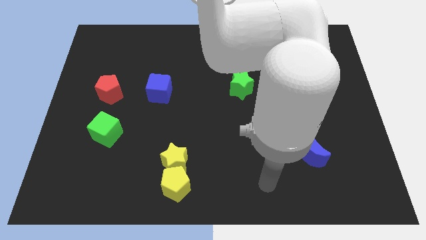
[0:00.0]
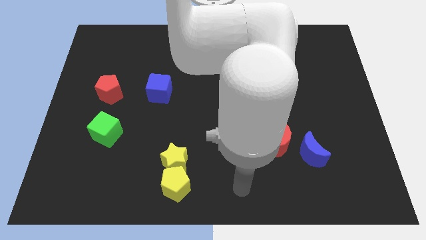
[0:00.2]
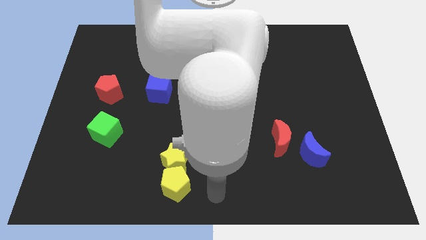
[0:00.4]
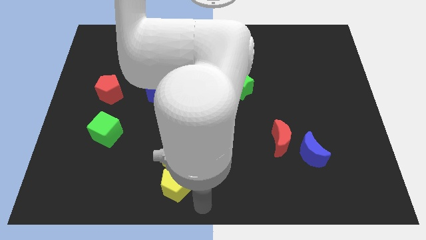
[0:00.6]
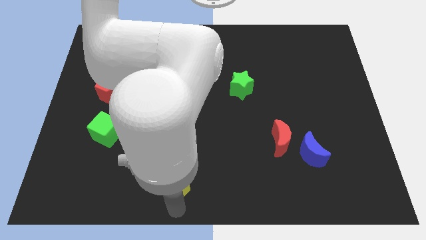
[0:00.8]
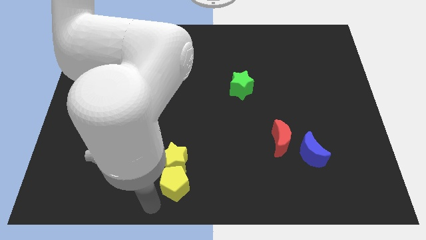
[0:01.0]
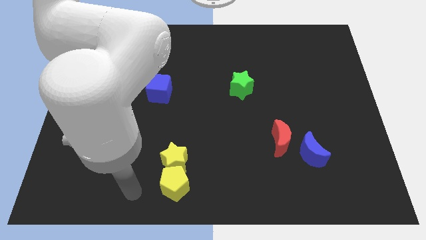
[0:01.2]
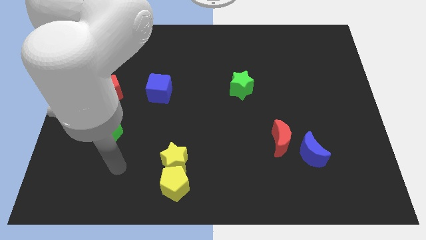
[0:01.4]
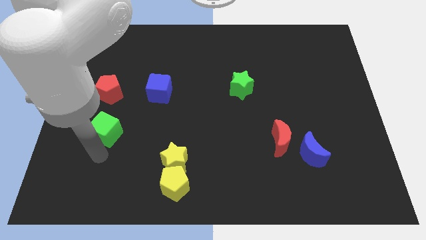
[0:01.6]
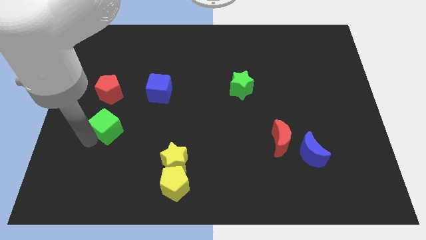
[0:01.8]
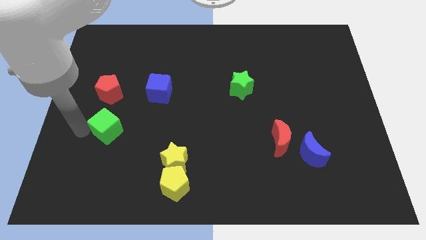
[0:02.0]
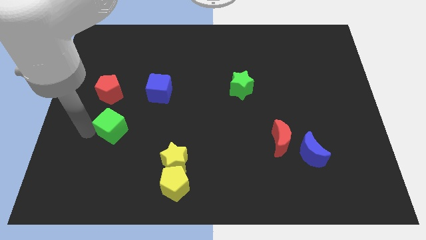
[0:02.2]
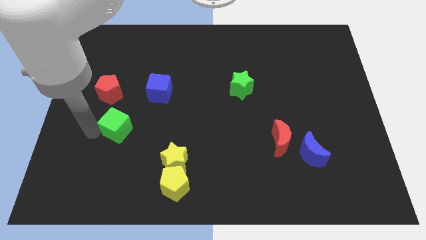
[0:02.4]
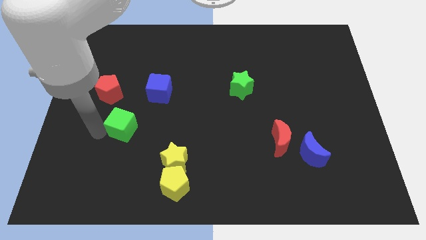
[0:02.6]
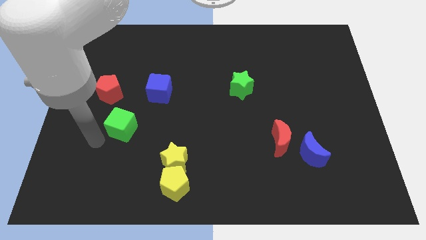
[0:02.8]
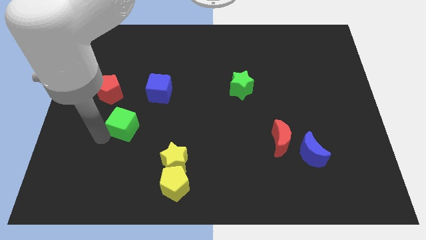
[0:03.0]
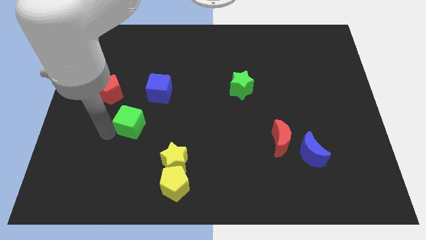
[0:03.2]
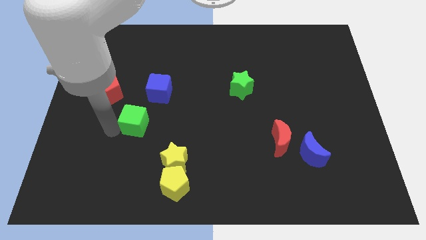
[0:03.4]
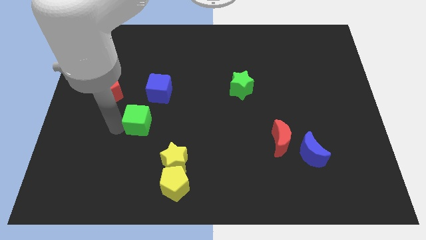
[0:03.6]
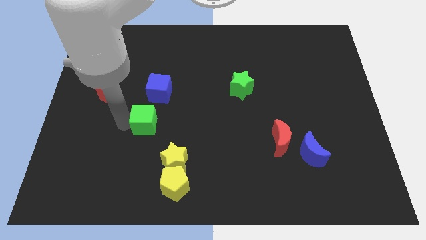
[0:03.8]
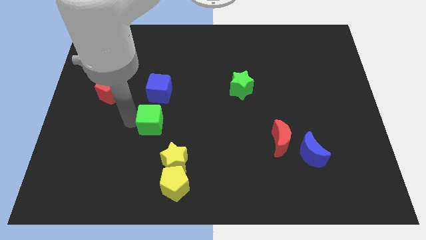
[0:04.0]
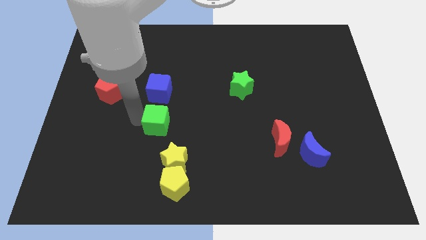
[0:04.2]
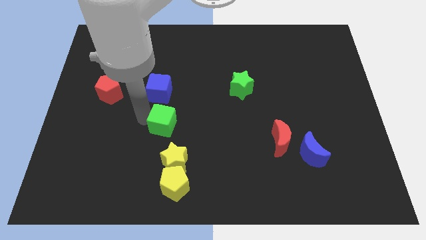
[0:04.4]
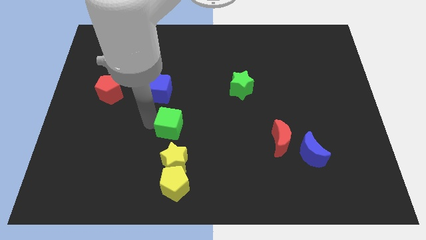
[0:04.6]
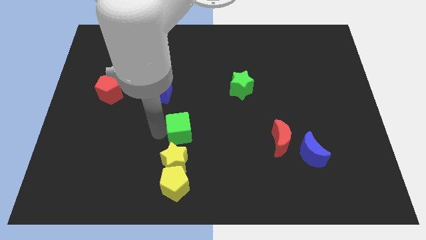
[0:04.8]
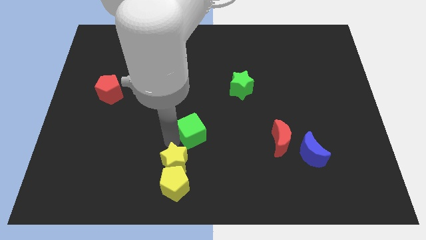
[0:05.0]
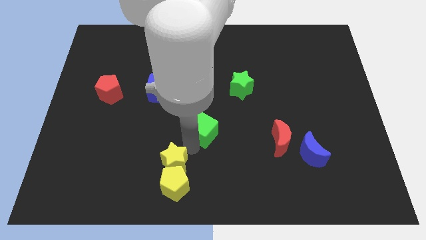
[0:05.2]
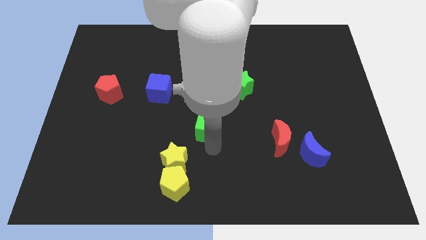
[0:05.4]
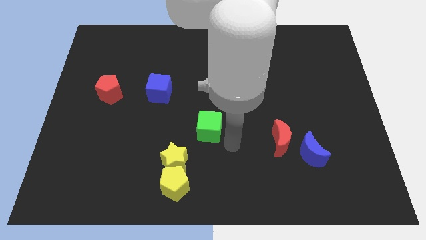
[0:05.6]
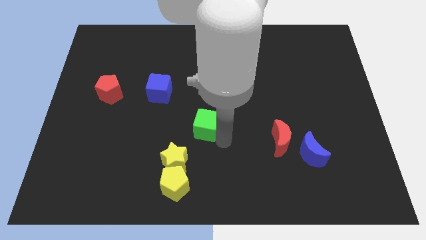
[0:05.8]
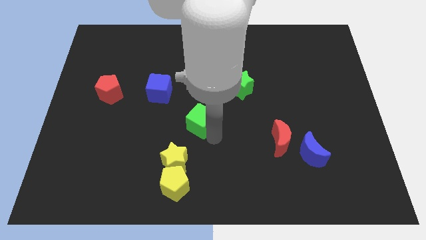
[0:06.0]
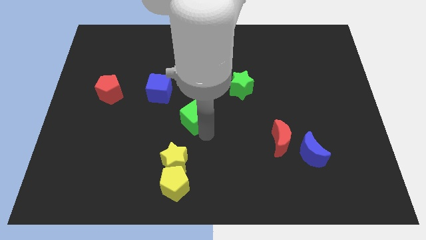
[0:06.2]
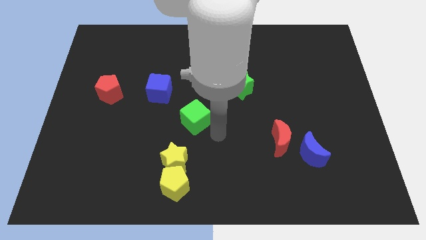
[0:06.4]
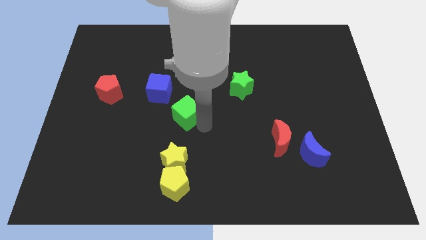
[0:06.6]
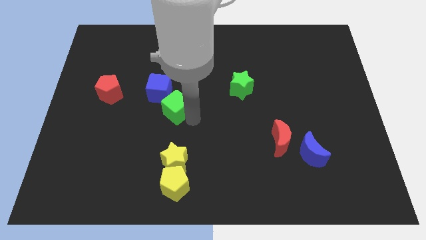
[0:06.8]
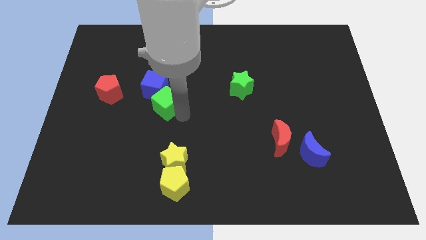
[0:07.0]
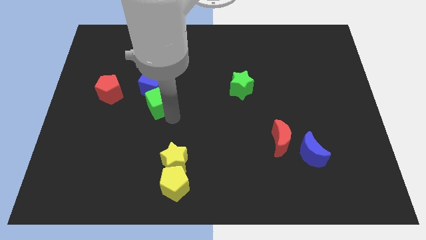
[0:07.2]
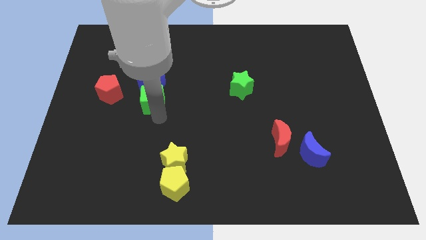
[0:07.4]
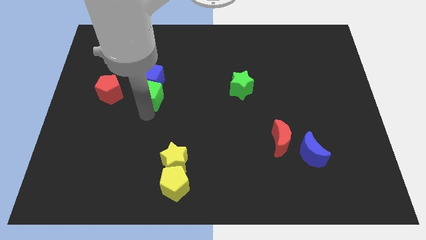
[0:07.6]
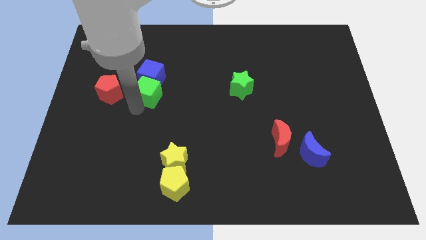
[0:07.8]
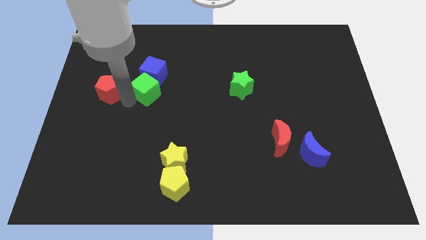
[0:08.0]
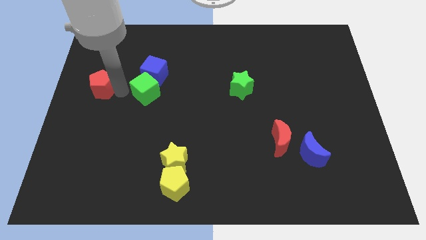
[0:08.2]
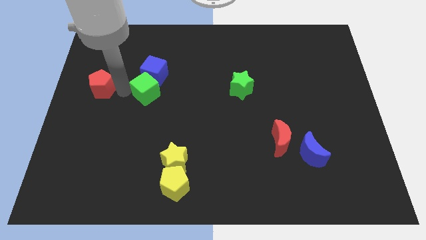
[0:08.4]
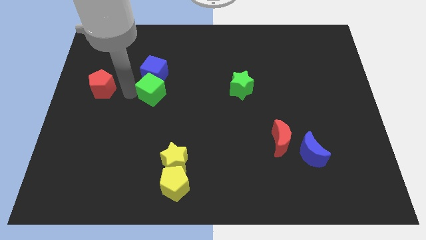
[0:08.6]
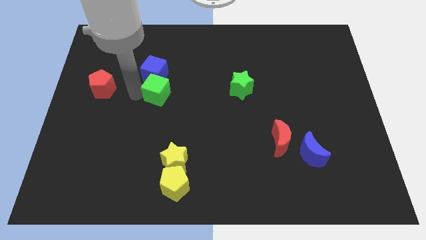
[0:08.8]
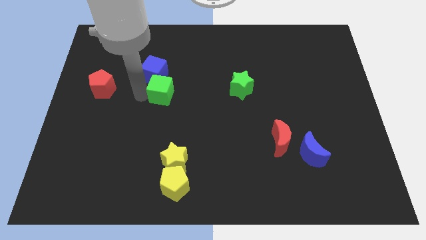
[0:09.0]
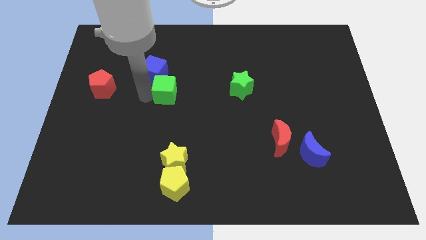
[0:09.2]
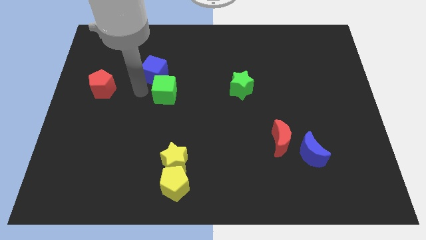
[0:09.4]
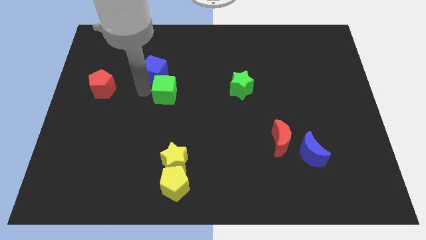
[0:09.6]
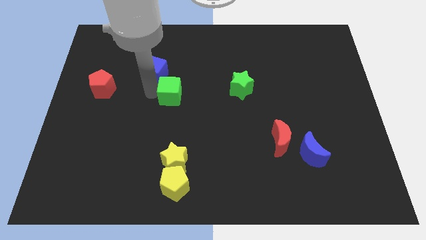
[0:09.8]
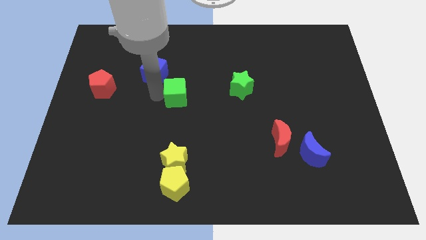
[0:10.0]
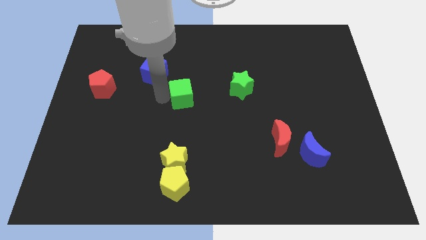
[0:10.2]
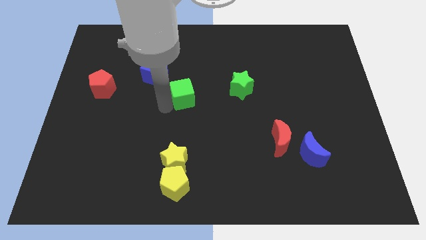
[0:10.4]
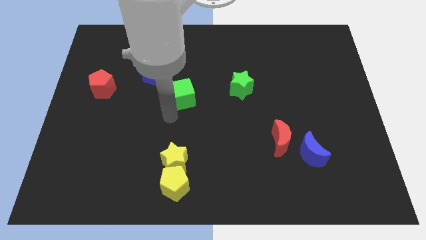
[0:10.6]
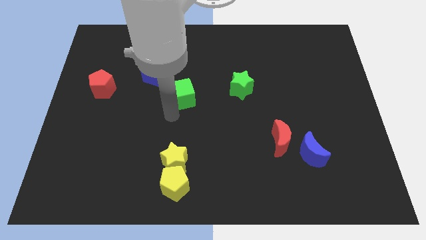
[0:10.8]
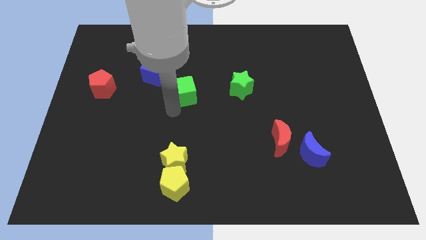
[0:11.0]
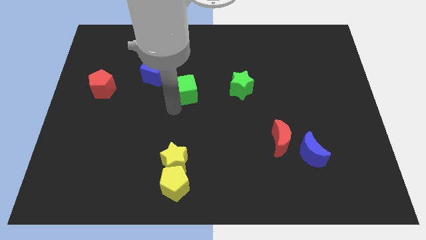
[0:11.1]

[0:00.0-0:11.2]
push the green cube diagonally up and right

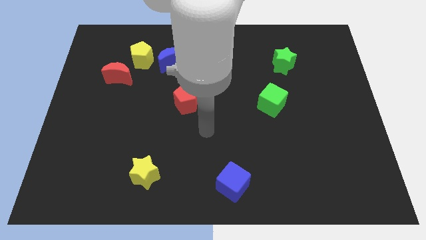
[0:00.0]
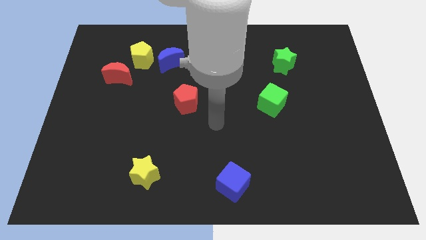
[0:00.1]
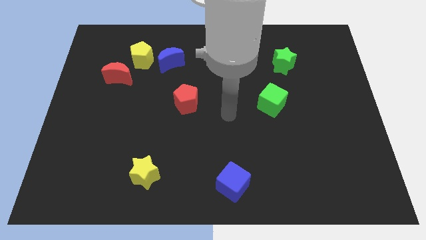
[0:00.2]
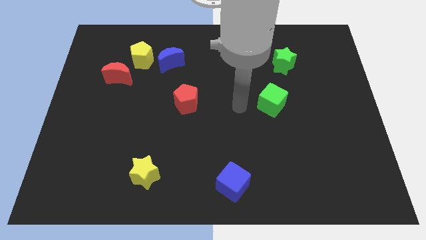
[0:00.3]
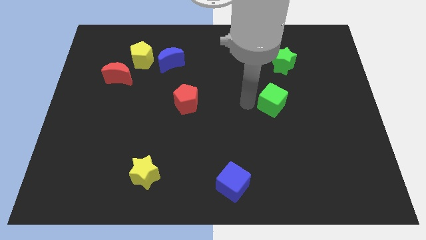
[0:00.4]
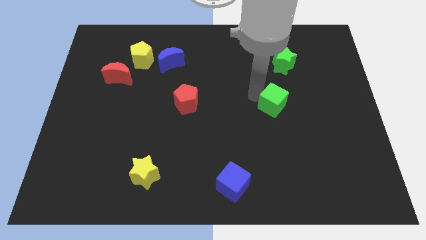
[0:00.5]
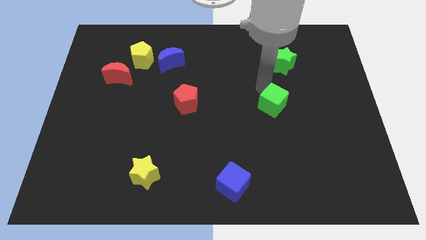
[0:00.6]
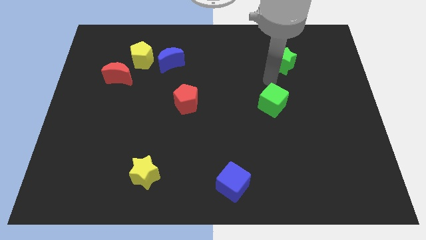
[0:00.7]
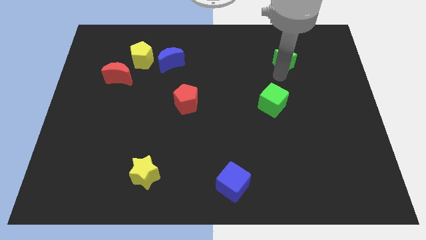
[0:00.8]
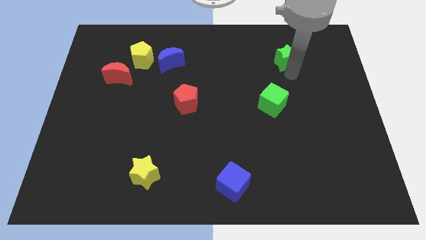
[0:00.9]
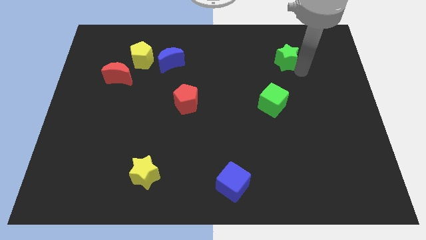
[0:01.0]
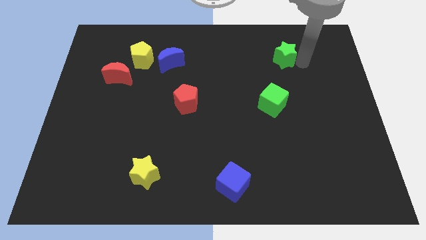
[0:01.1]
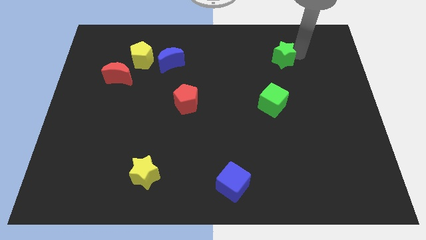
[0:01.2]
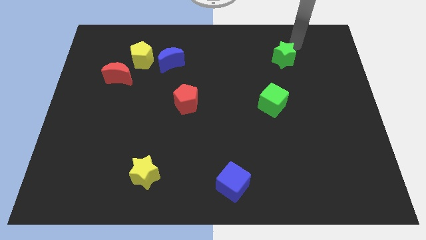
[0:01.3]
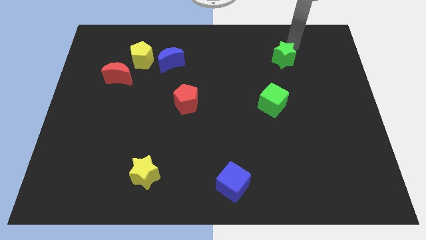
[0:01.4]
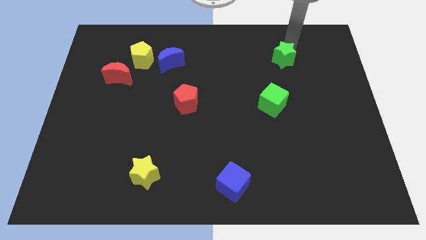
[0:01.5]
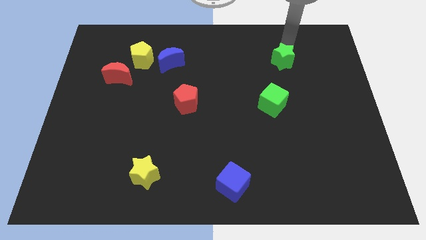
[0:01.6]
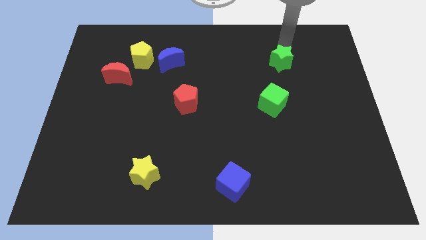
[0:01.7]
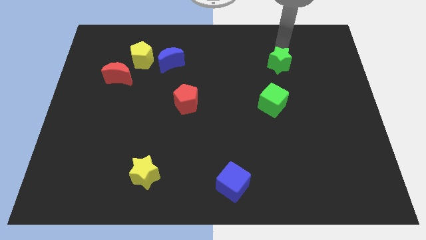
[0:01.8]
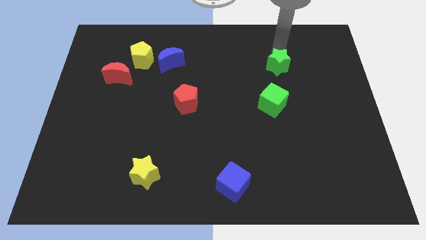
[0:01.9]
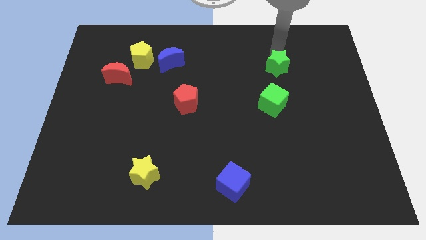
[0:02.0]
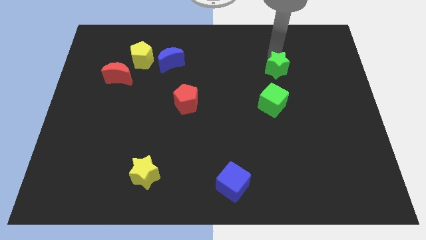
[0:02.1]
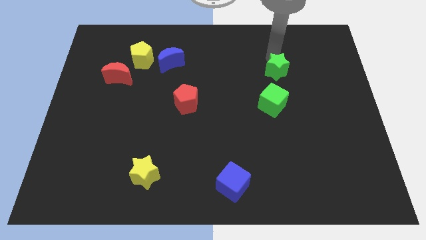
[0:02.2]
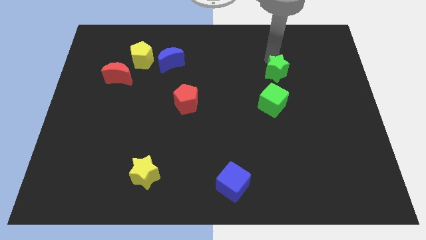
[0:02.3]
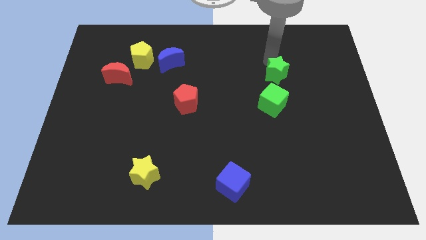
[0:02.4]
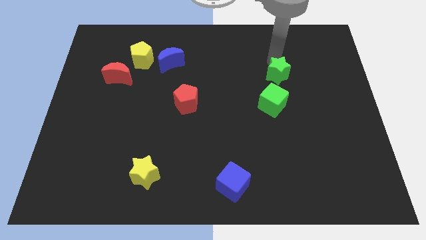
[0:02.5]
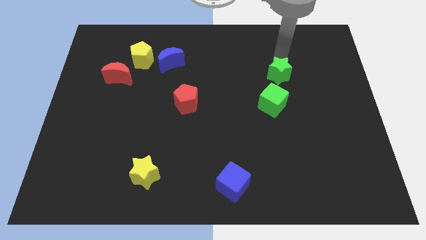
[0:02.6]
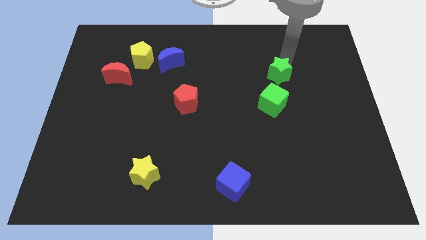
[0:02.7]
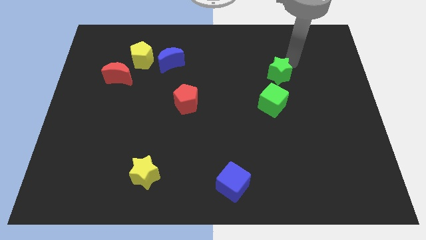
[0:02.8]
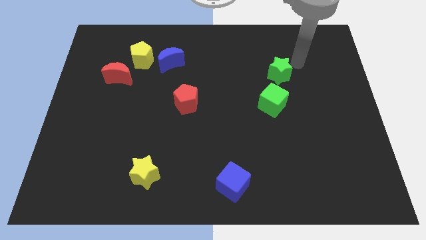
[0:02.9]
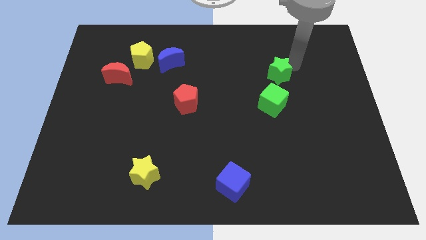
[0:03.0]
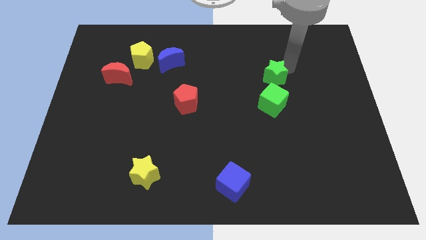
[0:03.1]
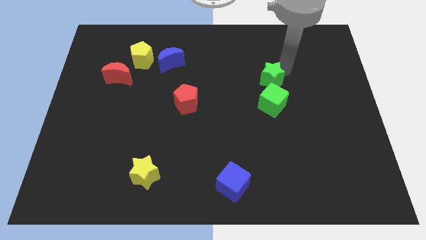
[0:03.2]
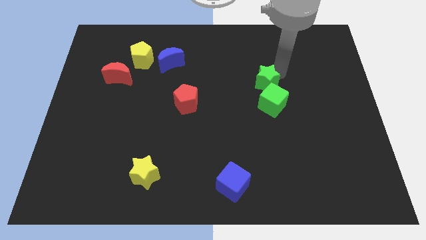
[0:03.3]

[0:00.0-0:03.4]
slide the green star downwards and then left slightly
